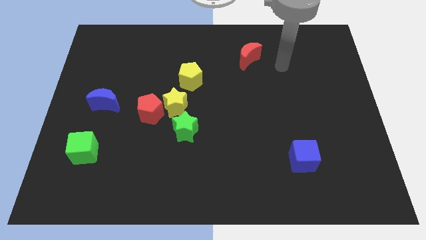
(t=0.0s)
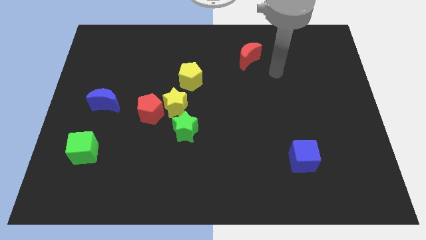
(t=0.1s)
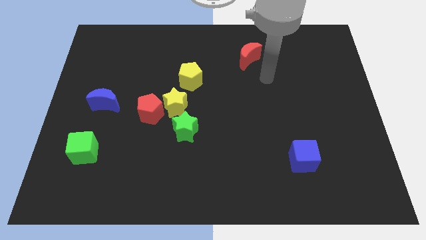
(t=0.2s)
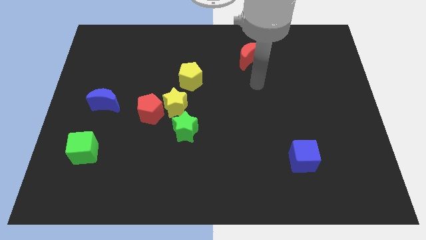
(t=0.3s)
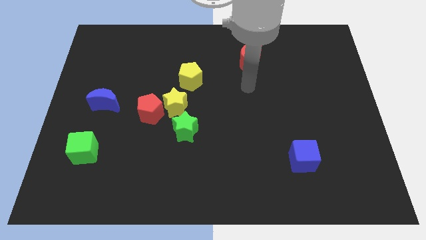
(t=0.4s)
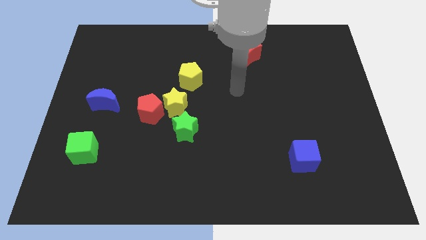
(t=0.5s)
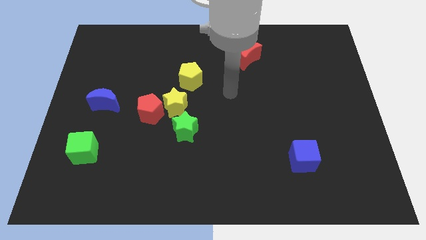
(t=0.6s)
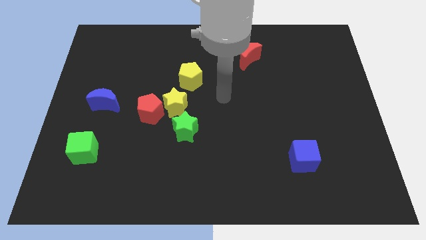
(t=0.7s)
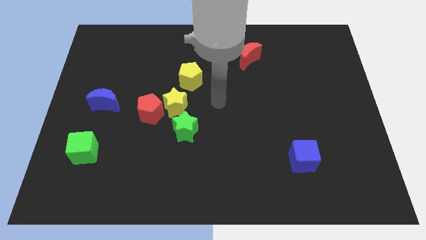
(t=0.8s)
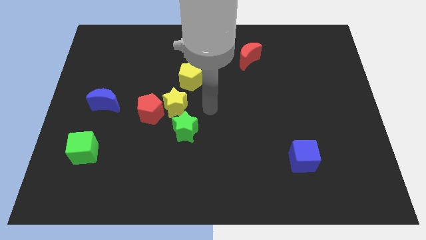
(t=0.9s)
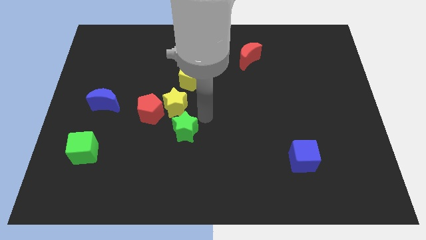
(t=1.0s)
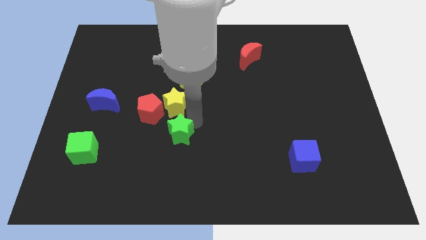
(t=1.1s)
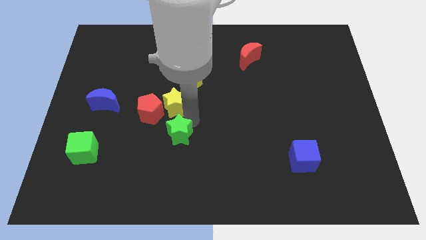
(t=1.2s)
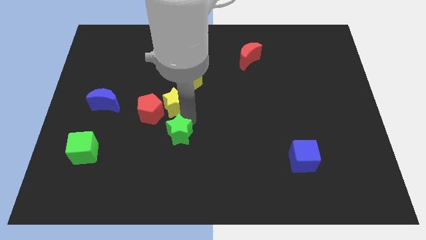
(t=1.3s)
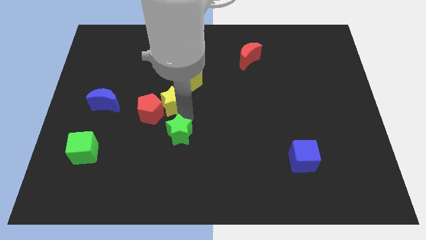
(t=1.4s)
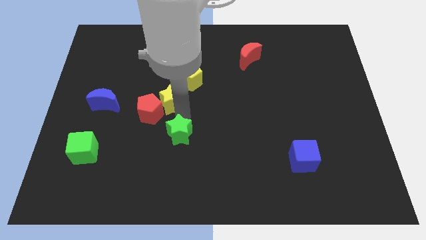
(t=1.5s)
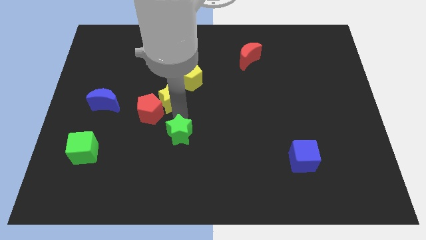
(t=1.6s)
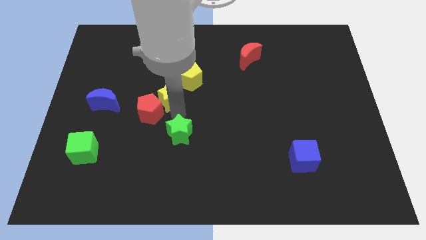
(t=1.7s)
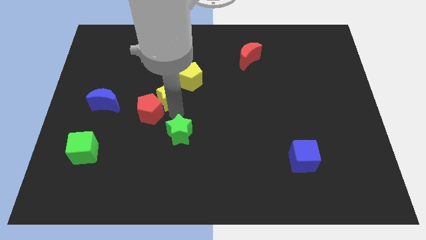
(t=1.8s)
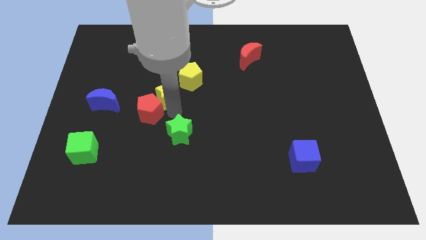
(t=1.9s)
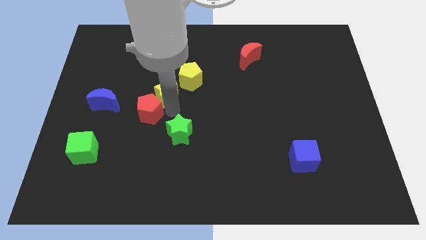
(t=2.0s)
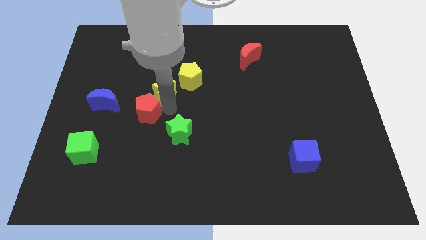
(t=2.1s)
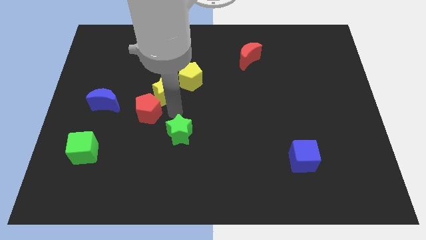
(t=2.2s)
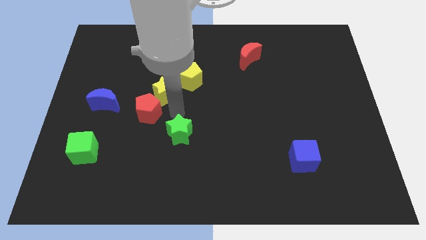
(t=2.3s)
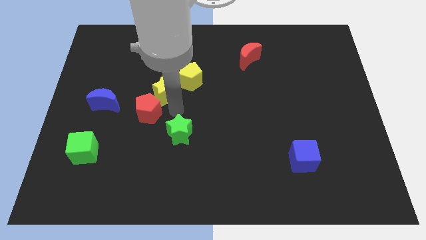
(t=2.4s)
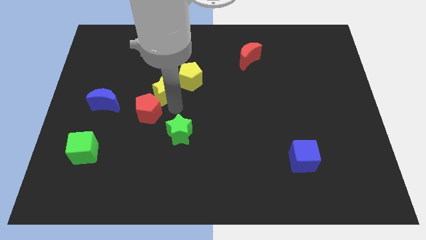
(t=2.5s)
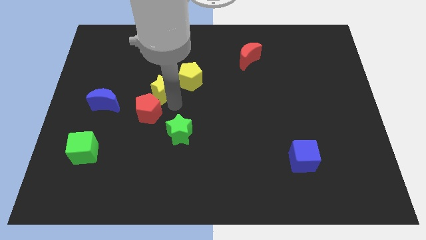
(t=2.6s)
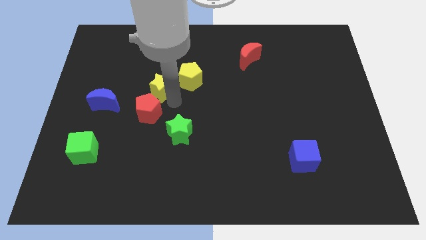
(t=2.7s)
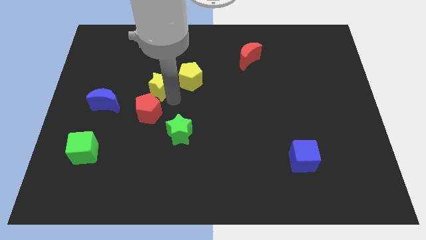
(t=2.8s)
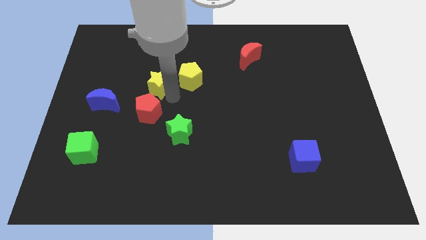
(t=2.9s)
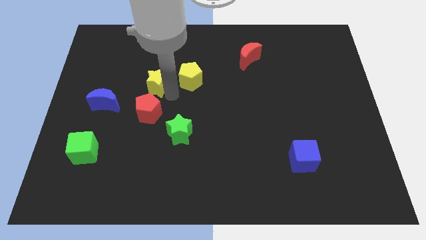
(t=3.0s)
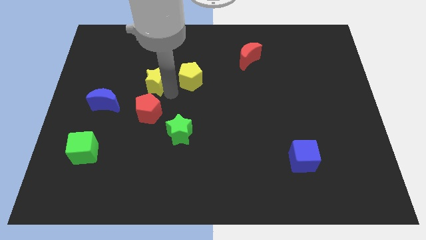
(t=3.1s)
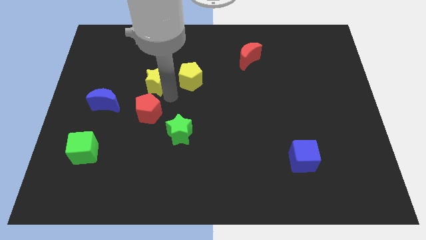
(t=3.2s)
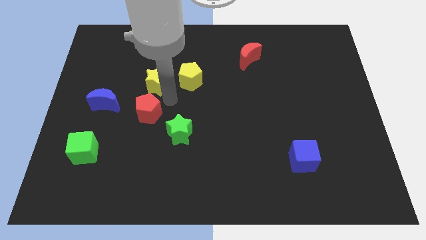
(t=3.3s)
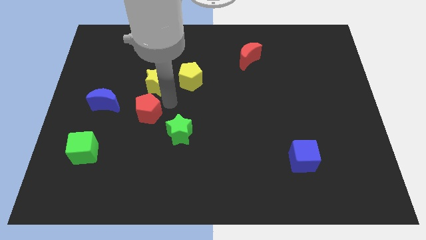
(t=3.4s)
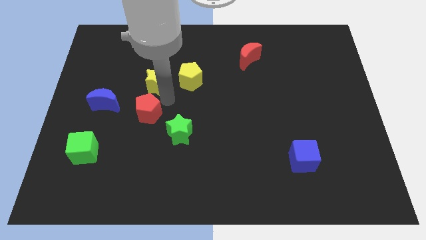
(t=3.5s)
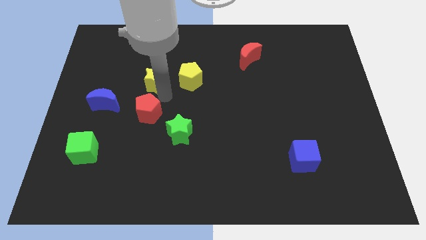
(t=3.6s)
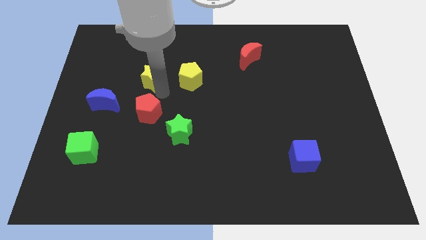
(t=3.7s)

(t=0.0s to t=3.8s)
separate the yellow star from the clump

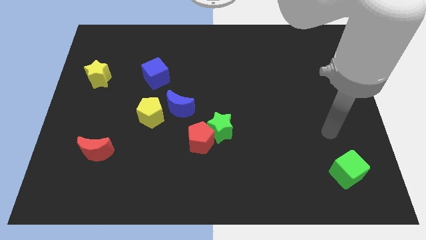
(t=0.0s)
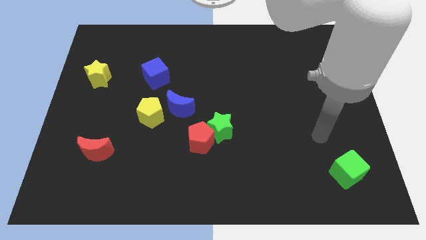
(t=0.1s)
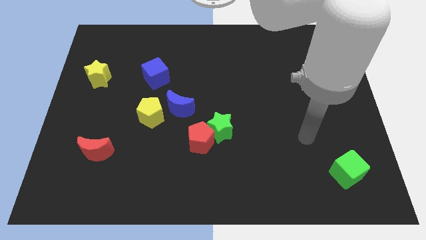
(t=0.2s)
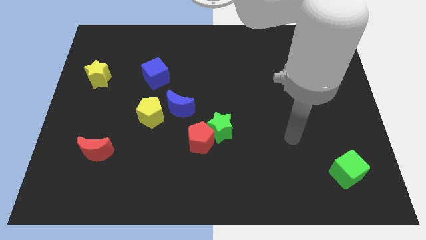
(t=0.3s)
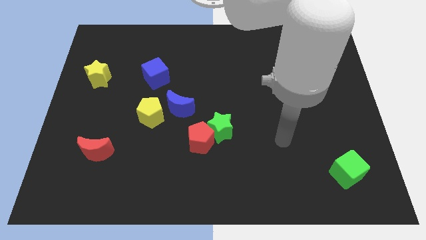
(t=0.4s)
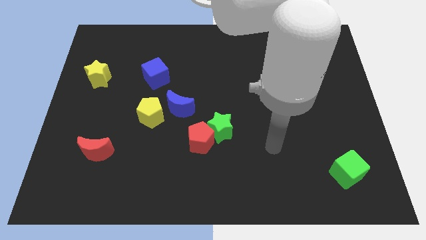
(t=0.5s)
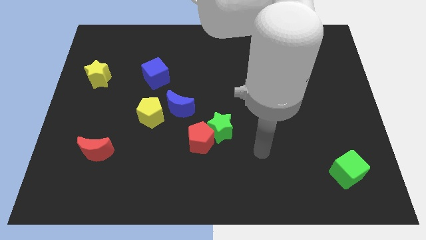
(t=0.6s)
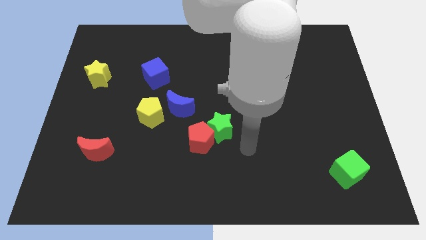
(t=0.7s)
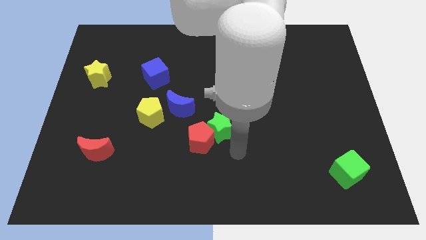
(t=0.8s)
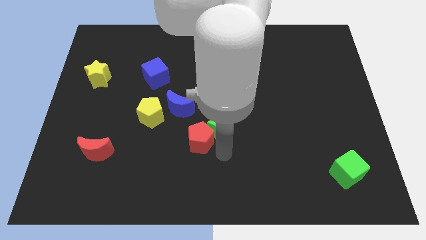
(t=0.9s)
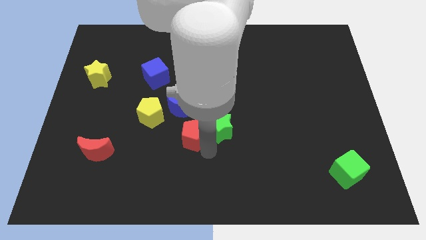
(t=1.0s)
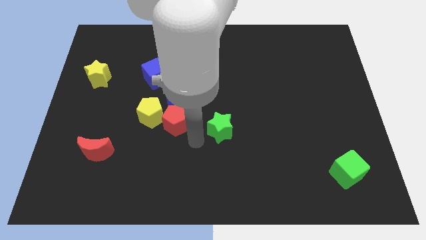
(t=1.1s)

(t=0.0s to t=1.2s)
move the green star away from the red pentagon

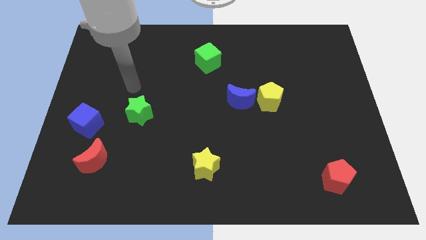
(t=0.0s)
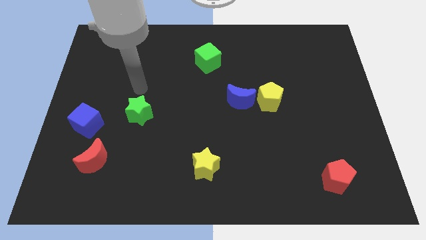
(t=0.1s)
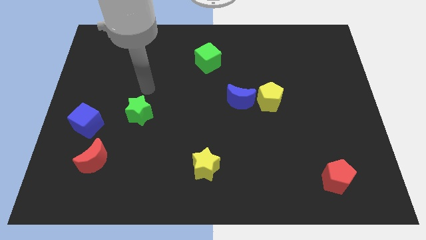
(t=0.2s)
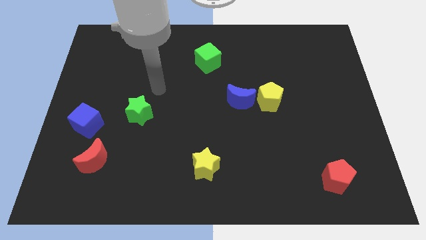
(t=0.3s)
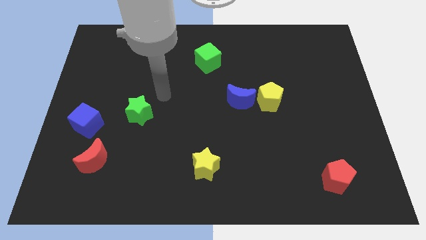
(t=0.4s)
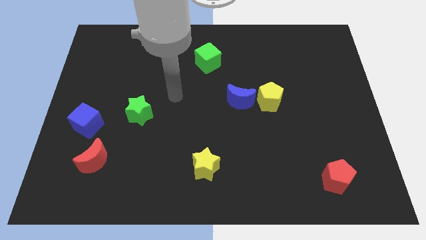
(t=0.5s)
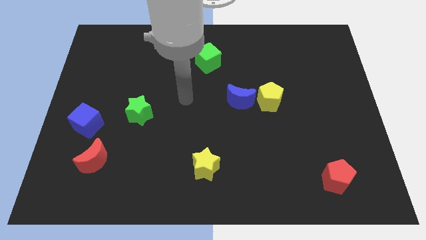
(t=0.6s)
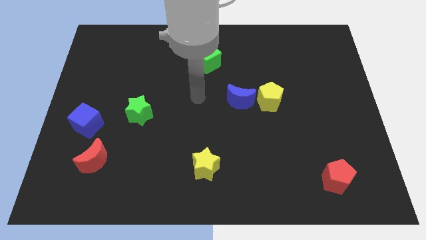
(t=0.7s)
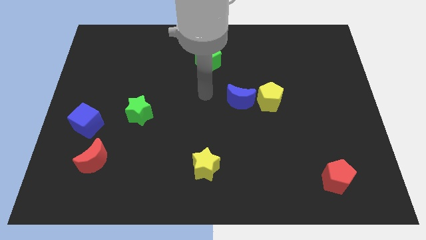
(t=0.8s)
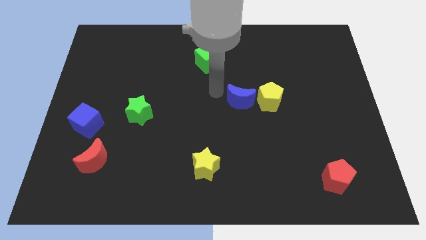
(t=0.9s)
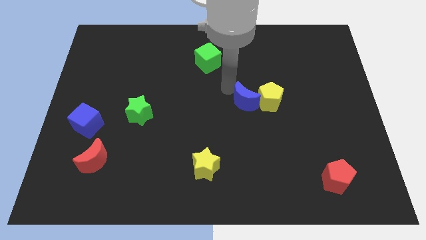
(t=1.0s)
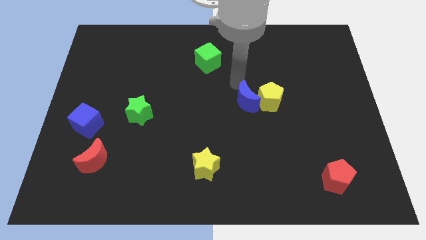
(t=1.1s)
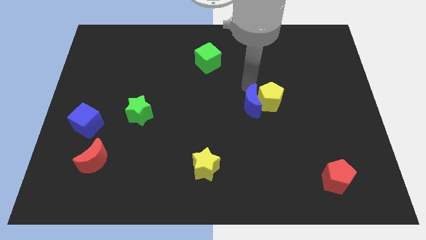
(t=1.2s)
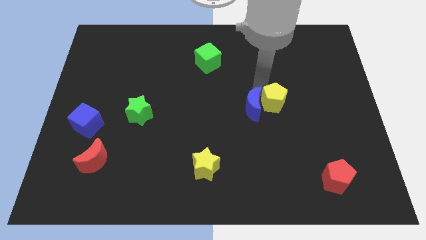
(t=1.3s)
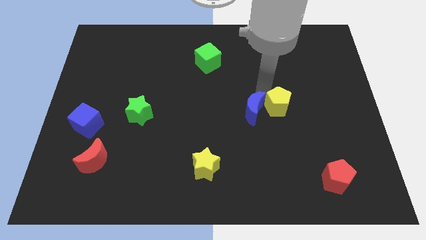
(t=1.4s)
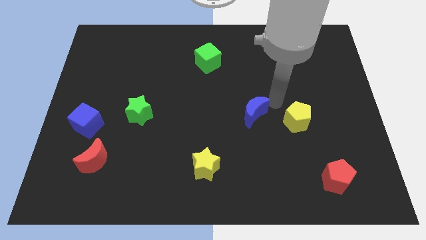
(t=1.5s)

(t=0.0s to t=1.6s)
move the blue moon away from the yellow pentagon

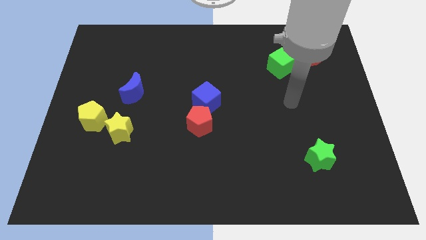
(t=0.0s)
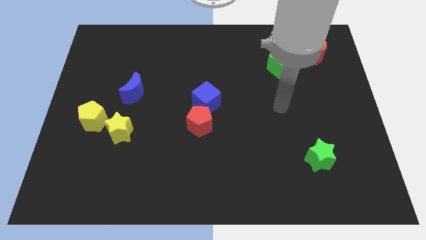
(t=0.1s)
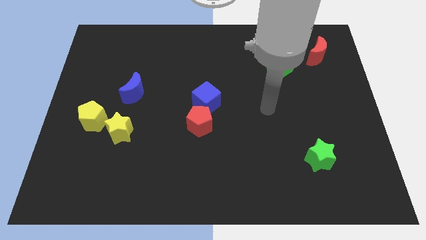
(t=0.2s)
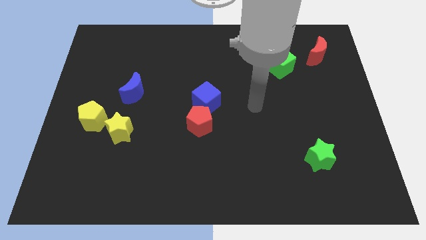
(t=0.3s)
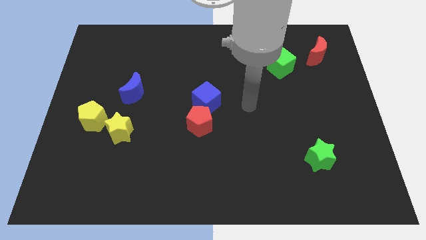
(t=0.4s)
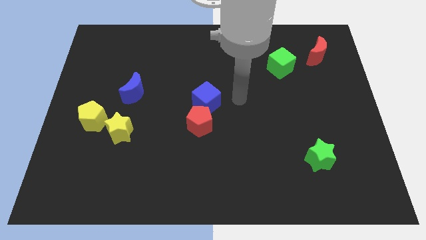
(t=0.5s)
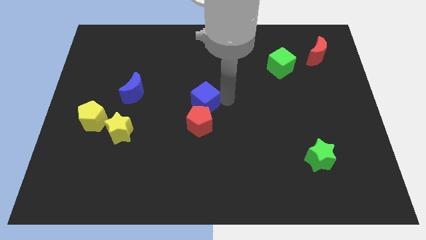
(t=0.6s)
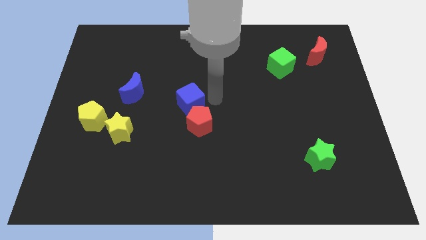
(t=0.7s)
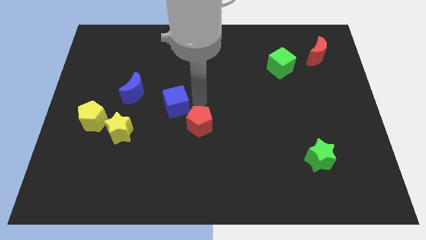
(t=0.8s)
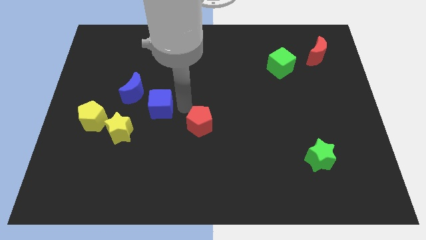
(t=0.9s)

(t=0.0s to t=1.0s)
move the red pentagon away from the blue cube

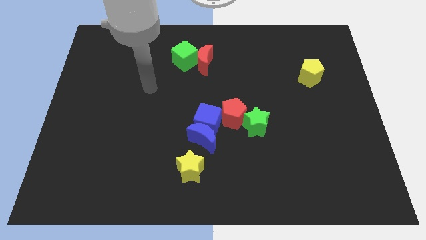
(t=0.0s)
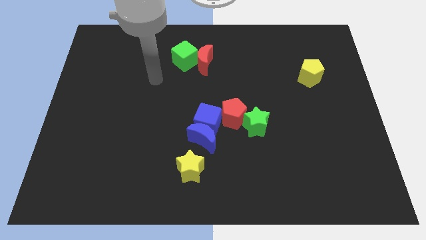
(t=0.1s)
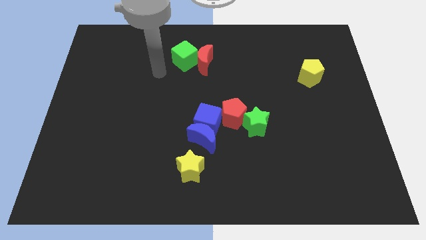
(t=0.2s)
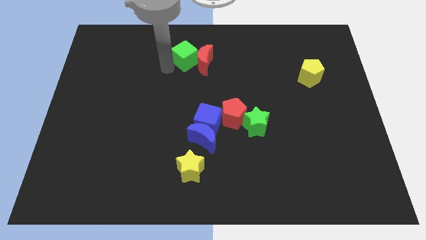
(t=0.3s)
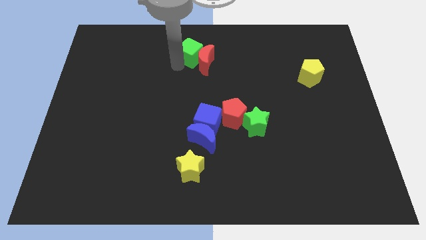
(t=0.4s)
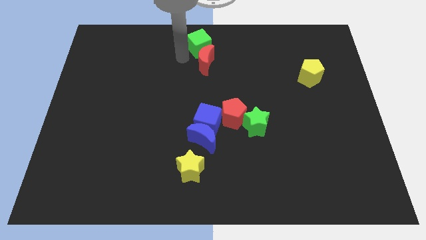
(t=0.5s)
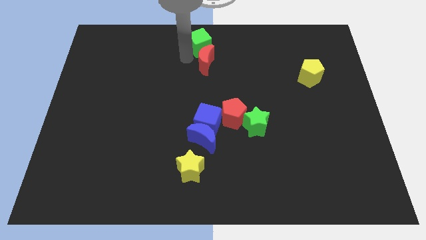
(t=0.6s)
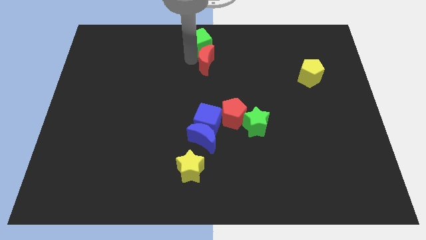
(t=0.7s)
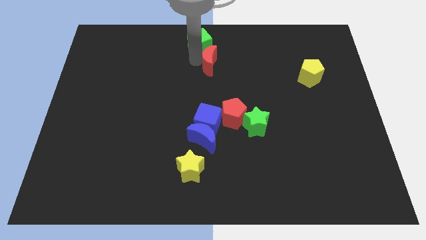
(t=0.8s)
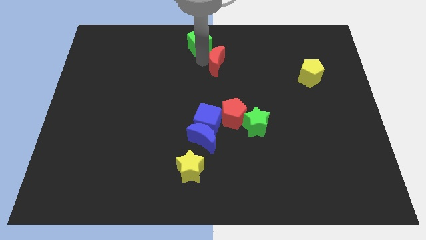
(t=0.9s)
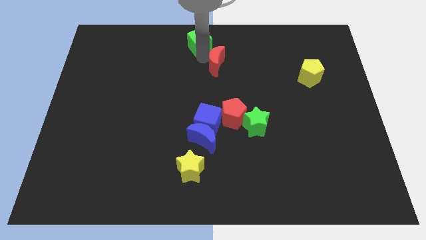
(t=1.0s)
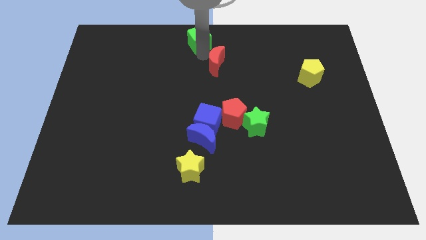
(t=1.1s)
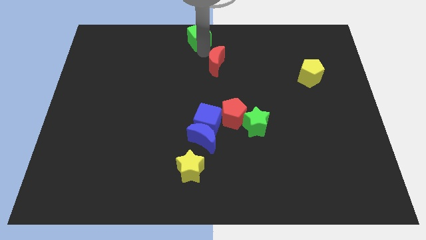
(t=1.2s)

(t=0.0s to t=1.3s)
move the red moon away from the green cube

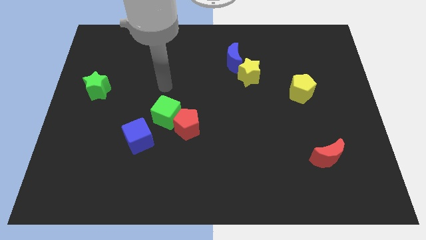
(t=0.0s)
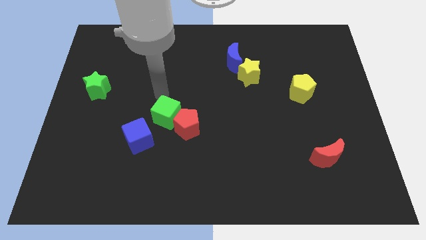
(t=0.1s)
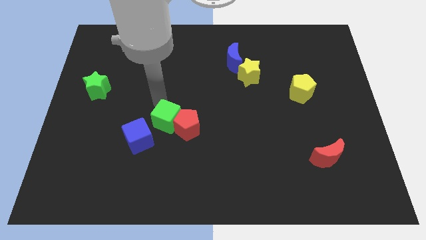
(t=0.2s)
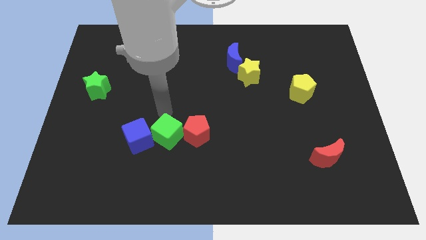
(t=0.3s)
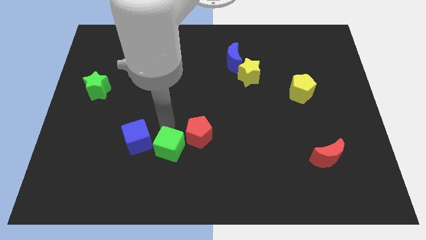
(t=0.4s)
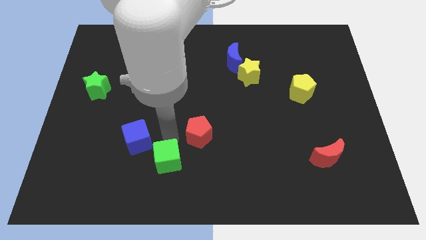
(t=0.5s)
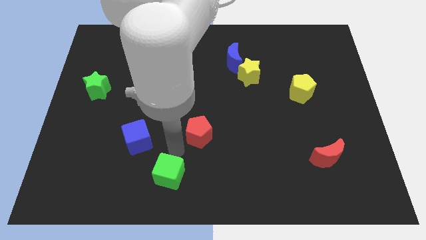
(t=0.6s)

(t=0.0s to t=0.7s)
separate the red pentagon from the green cube
